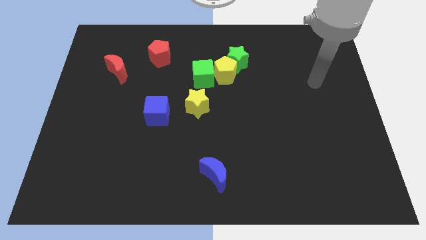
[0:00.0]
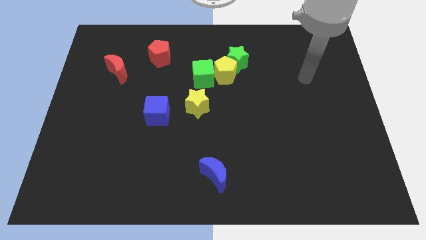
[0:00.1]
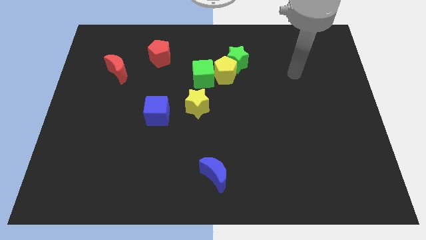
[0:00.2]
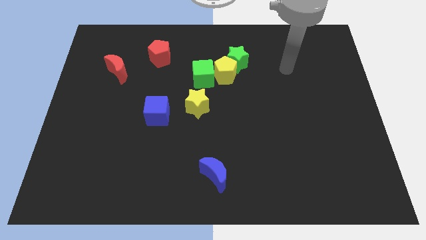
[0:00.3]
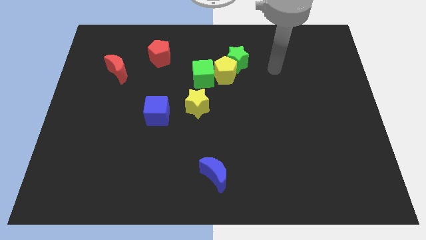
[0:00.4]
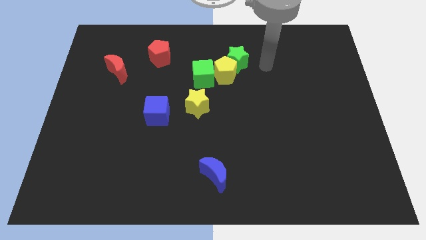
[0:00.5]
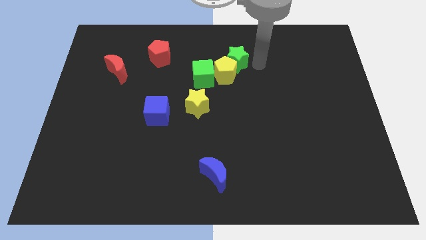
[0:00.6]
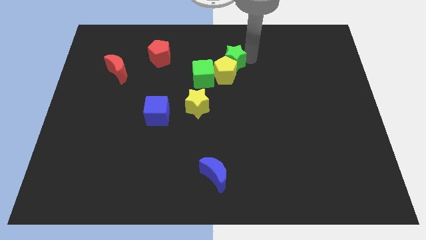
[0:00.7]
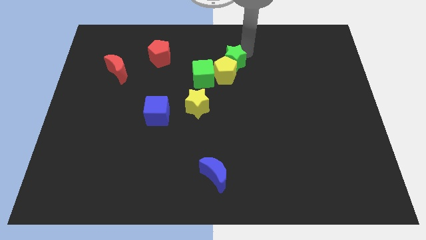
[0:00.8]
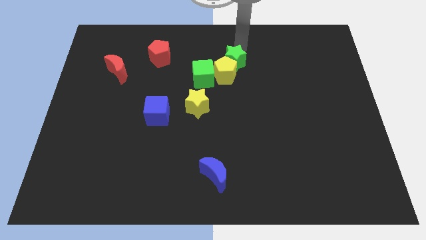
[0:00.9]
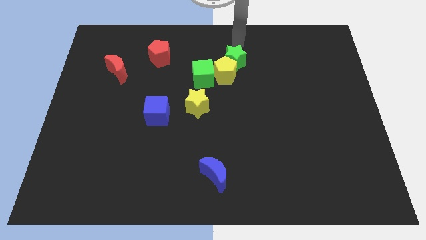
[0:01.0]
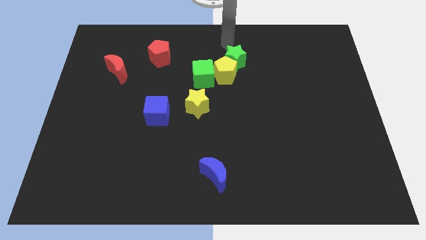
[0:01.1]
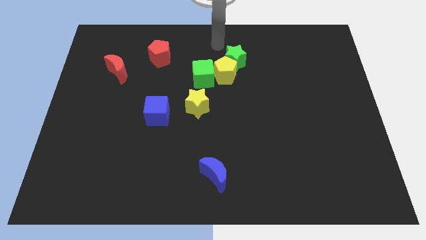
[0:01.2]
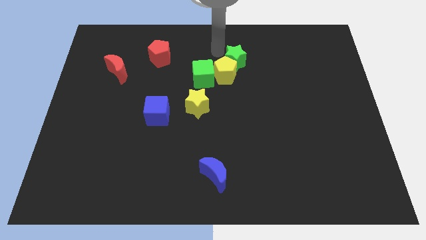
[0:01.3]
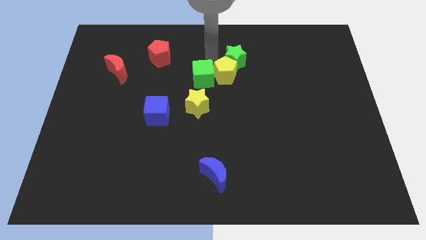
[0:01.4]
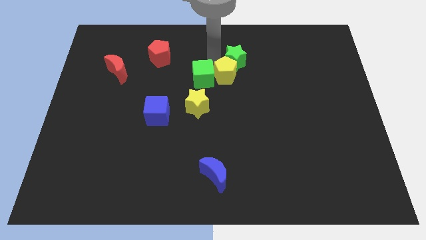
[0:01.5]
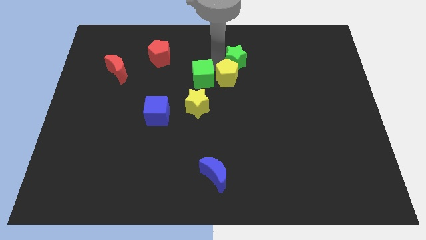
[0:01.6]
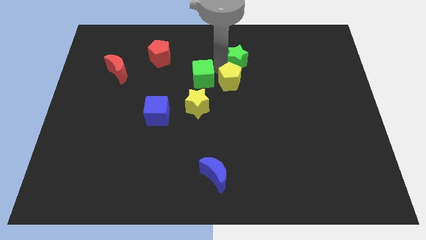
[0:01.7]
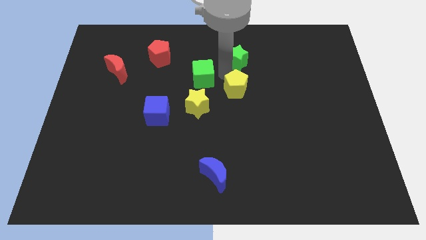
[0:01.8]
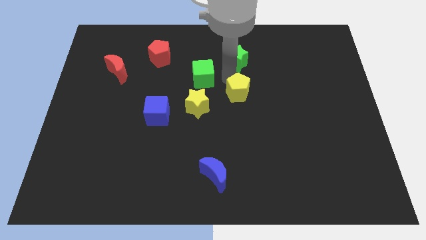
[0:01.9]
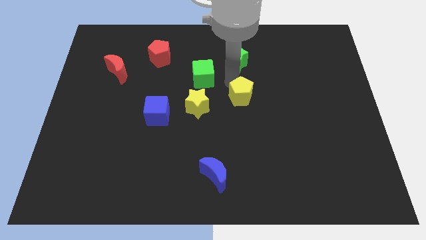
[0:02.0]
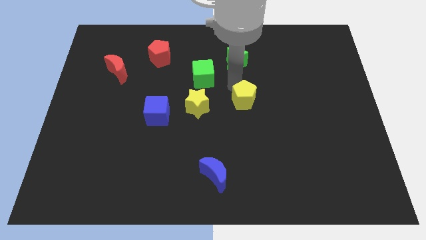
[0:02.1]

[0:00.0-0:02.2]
move the yellow pentagon away from the green star and green cube

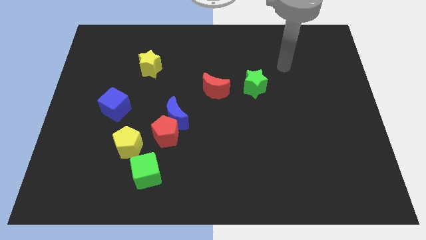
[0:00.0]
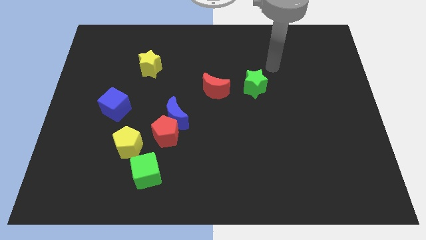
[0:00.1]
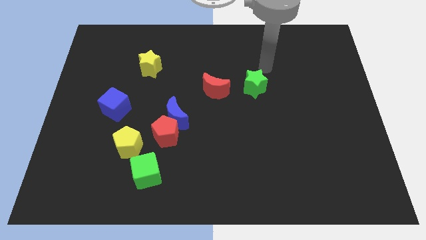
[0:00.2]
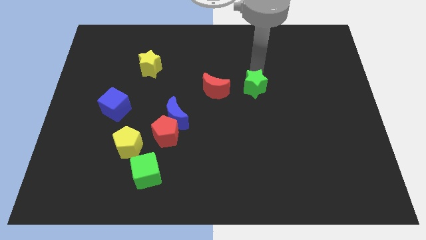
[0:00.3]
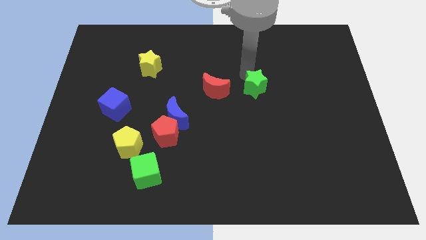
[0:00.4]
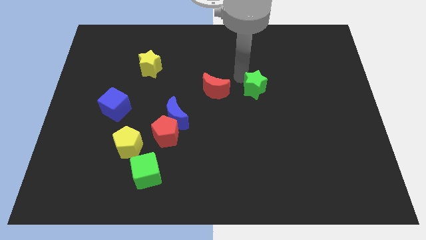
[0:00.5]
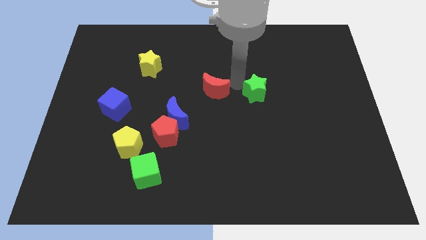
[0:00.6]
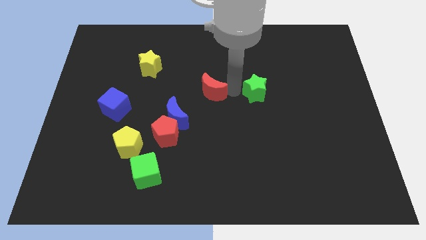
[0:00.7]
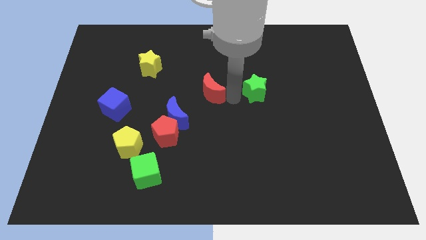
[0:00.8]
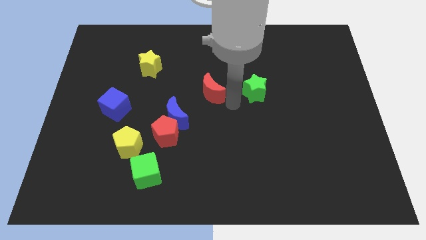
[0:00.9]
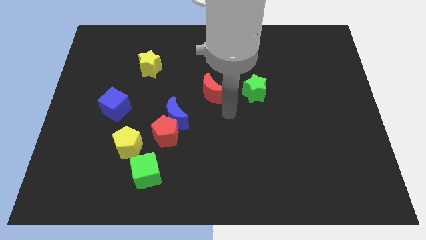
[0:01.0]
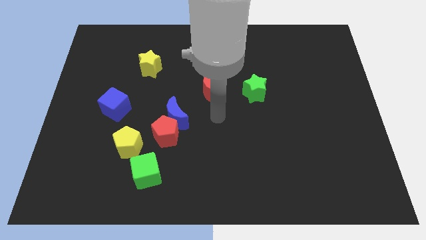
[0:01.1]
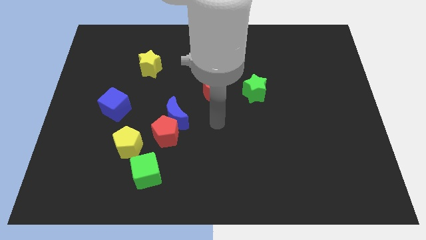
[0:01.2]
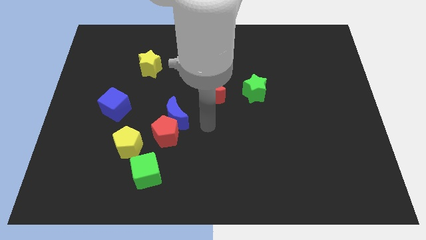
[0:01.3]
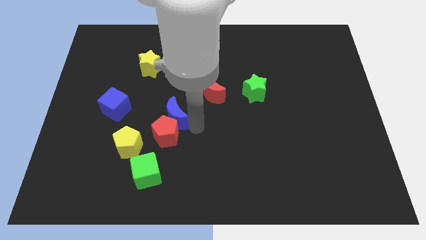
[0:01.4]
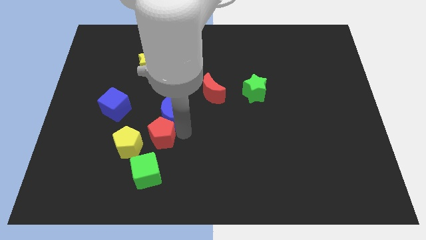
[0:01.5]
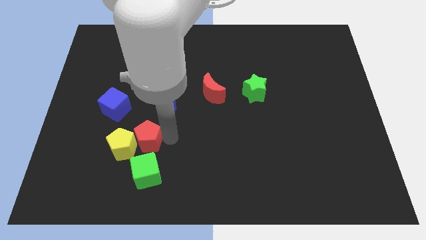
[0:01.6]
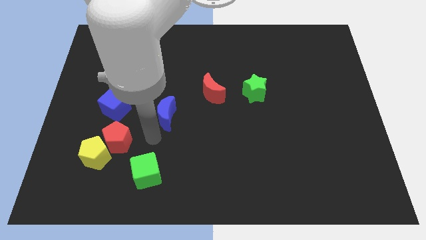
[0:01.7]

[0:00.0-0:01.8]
pull the blue moon apart from the red pentagon

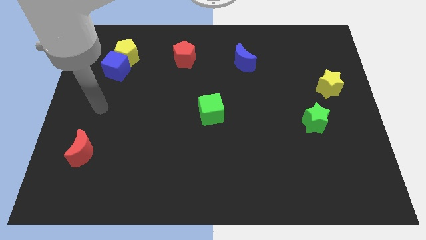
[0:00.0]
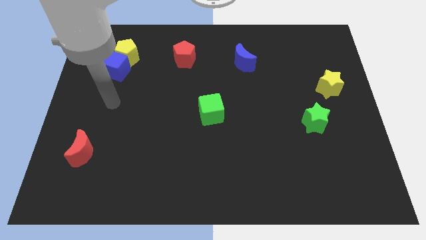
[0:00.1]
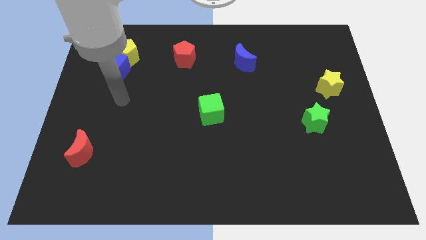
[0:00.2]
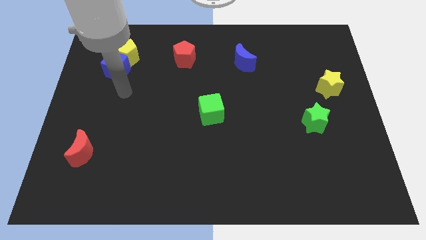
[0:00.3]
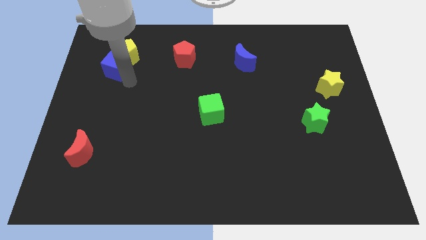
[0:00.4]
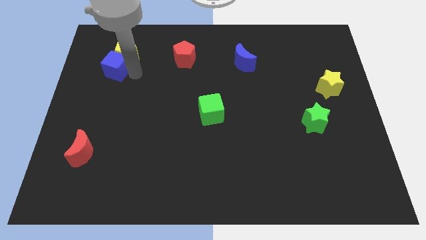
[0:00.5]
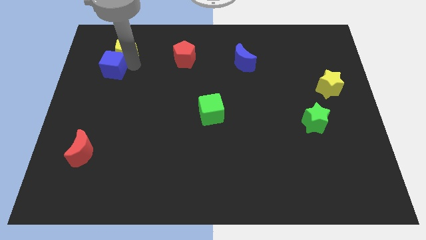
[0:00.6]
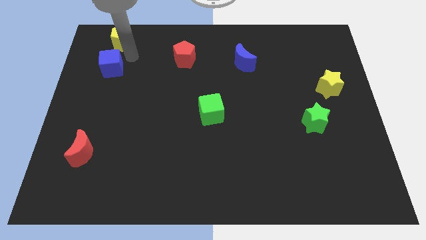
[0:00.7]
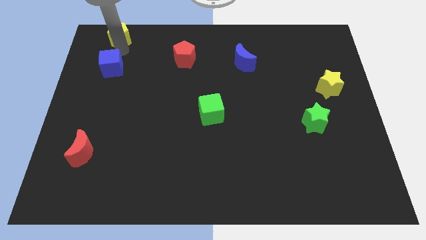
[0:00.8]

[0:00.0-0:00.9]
separate the blue cube from the yellow pentagon

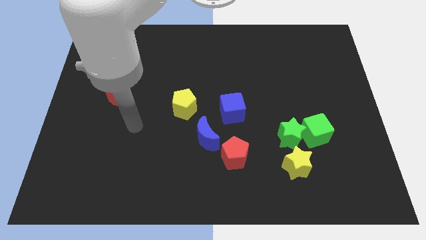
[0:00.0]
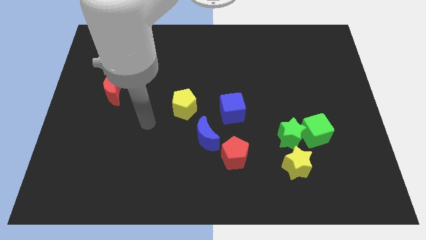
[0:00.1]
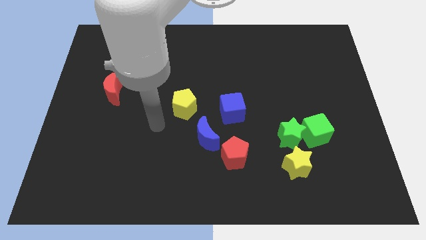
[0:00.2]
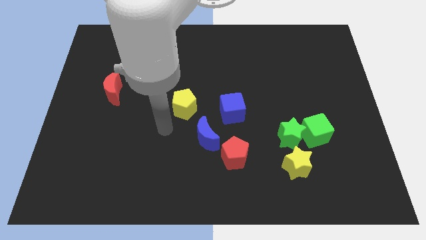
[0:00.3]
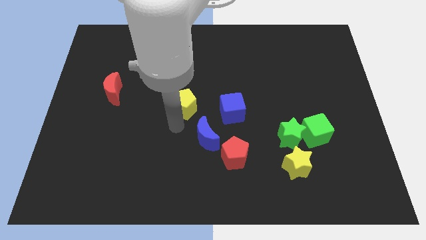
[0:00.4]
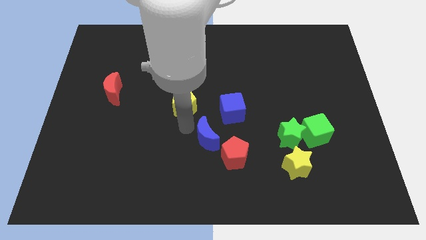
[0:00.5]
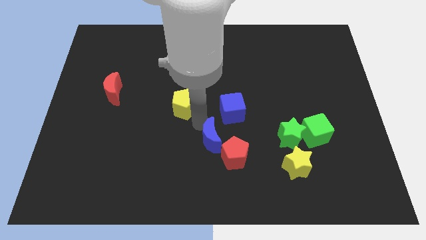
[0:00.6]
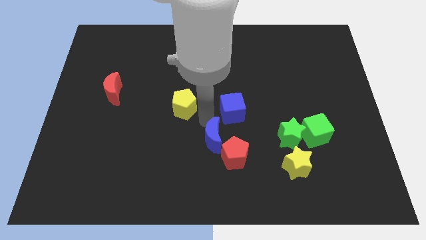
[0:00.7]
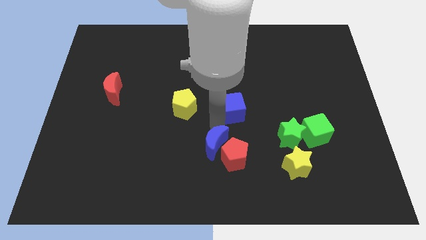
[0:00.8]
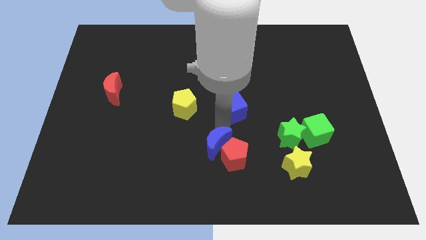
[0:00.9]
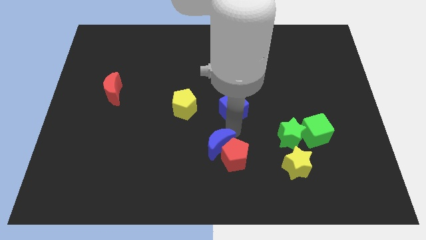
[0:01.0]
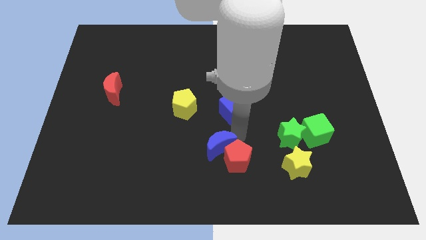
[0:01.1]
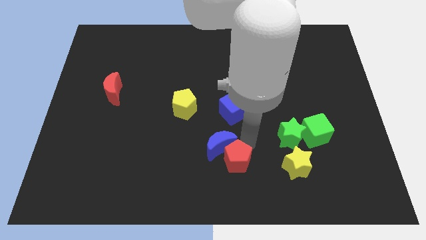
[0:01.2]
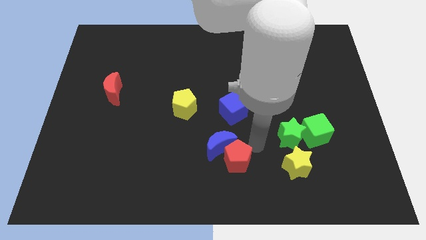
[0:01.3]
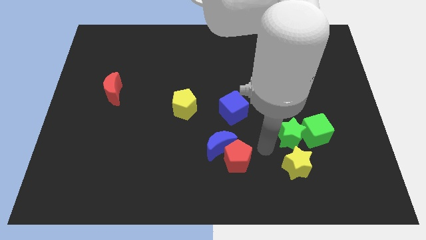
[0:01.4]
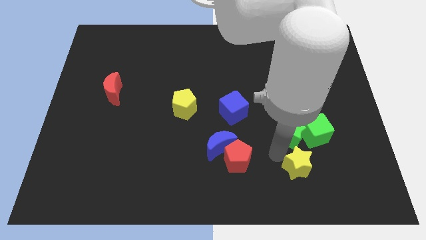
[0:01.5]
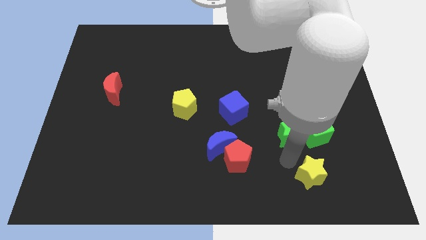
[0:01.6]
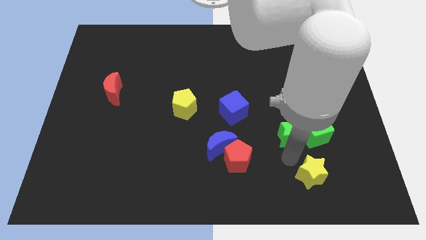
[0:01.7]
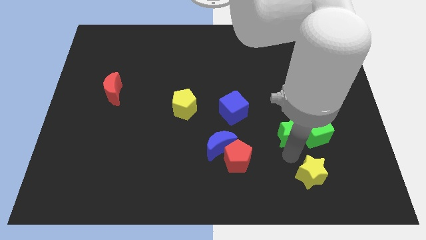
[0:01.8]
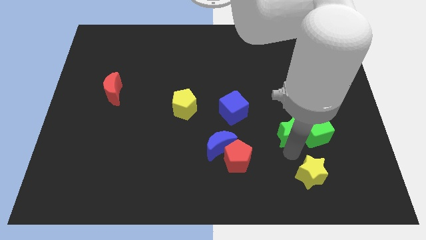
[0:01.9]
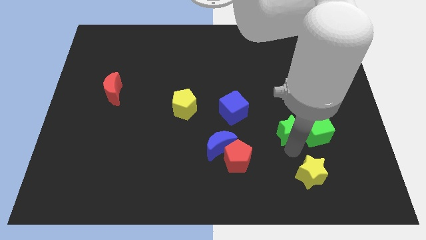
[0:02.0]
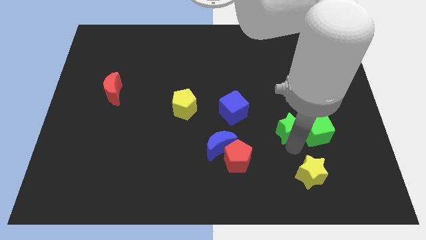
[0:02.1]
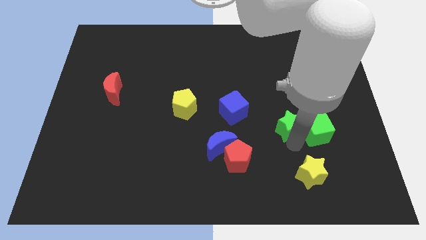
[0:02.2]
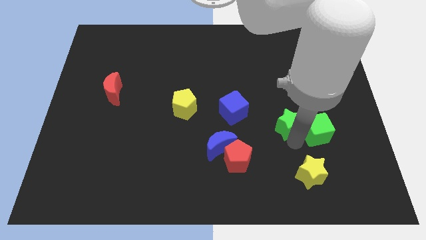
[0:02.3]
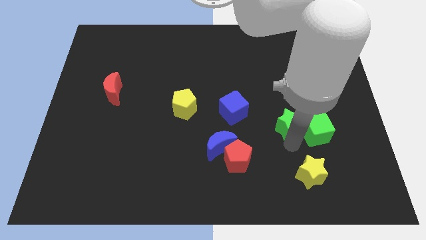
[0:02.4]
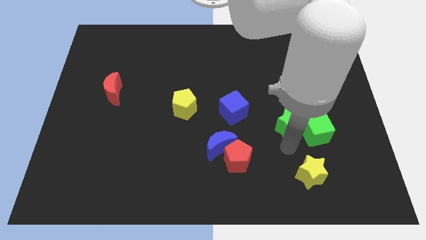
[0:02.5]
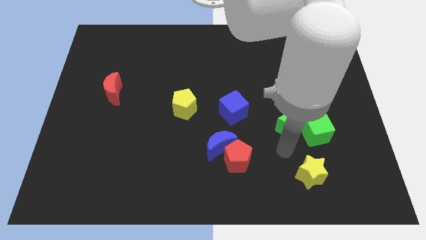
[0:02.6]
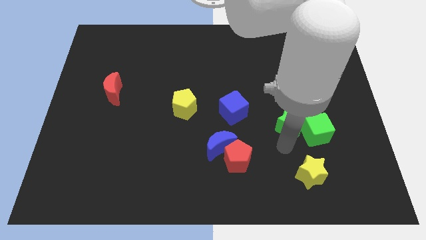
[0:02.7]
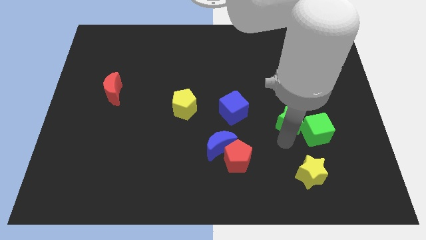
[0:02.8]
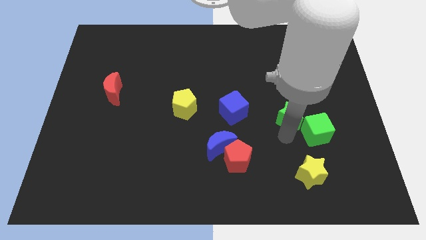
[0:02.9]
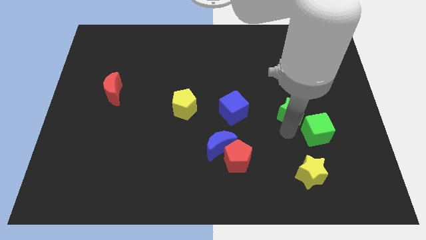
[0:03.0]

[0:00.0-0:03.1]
pull the green star apart from the green cube and yellow star

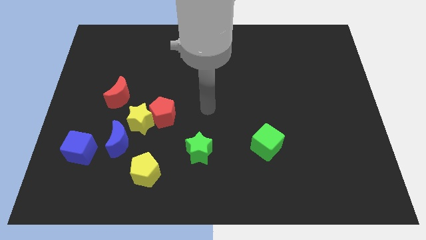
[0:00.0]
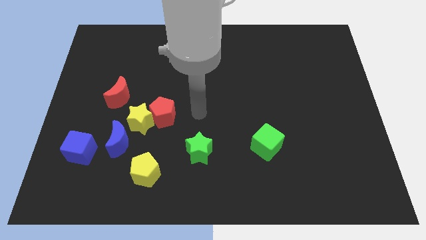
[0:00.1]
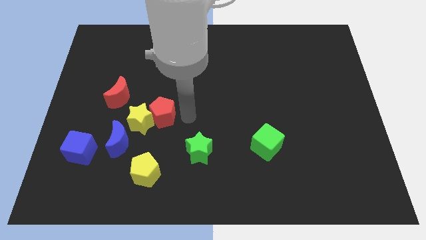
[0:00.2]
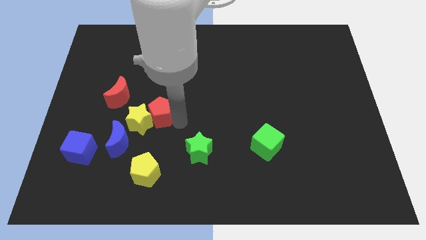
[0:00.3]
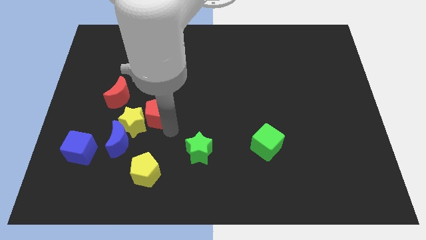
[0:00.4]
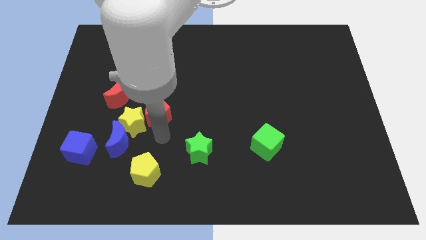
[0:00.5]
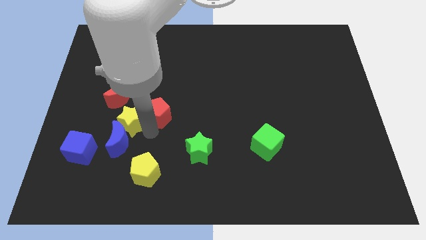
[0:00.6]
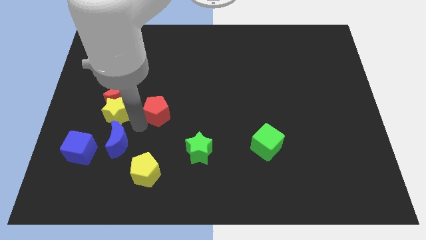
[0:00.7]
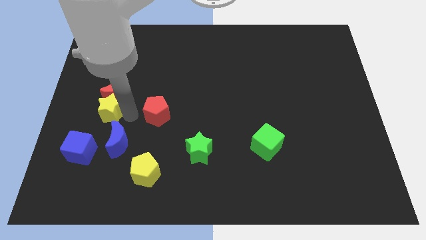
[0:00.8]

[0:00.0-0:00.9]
separate the red pentagon from the yellow star

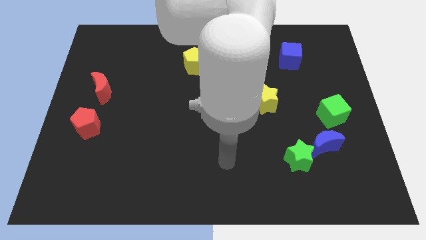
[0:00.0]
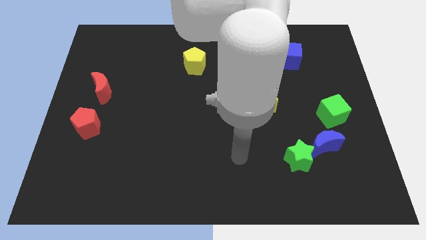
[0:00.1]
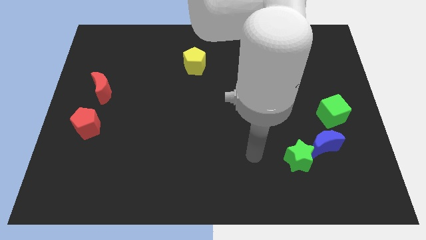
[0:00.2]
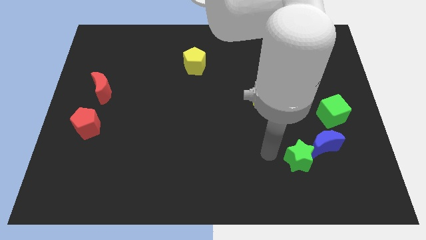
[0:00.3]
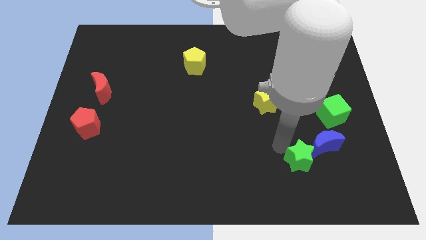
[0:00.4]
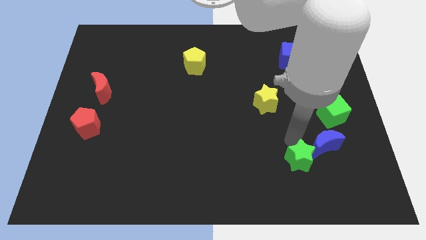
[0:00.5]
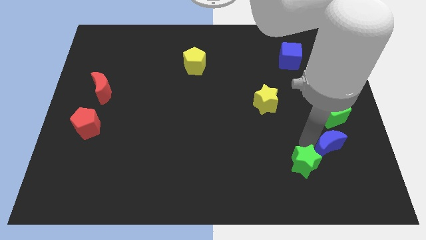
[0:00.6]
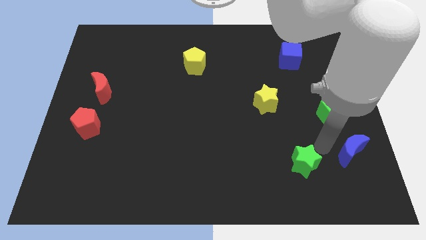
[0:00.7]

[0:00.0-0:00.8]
separate the green star from the blue moon
